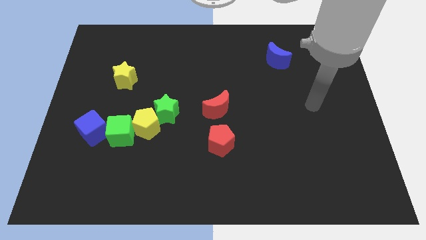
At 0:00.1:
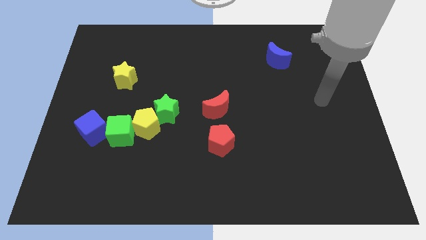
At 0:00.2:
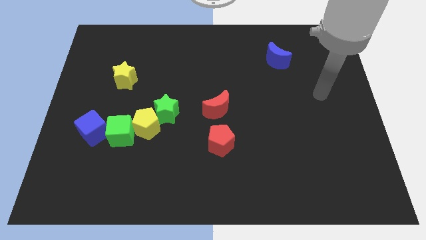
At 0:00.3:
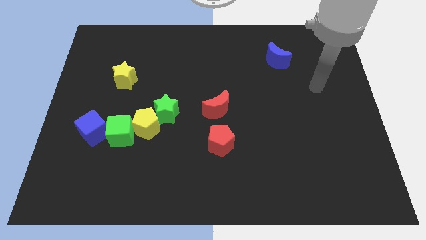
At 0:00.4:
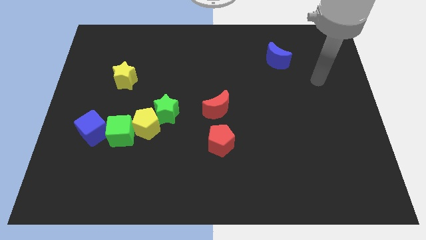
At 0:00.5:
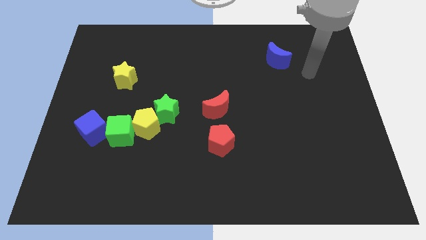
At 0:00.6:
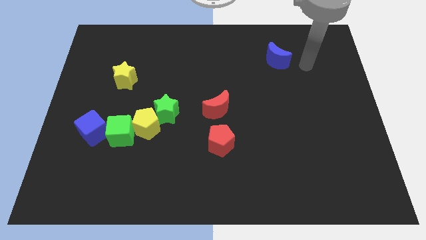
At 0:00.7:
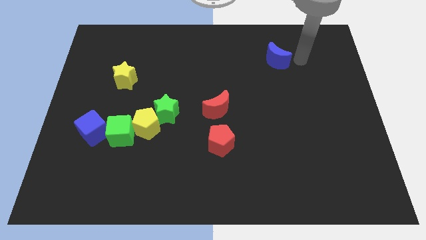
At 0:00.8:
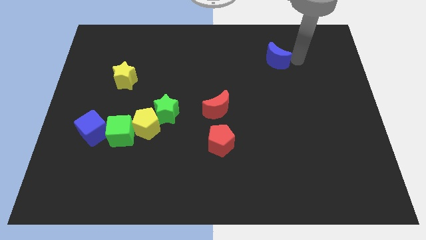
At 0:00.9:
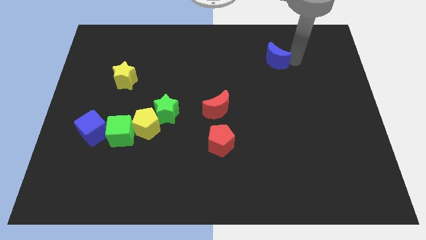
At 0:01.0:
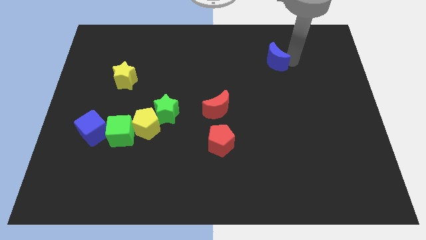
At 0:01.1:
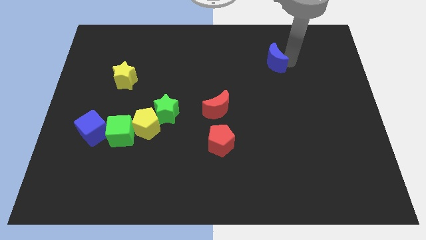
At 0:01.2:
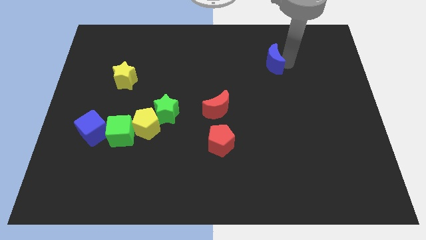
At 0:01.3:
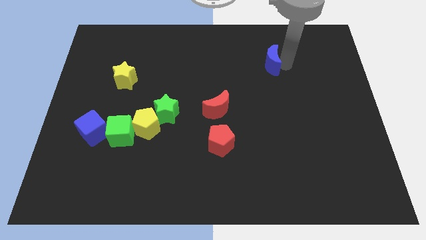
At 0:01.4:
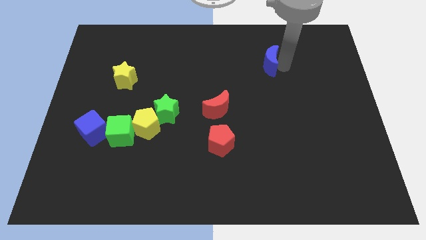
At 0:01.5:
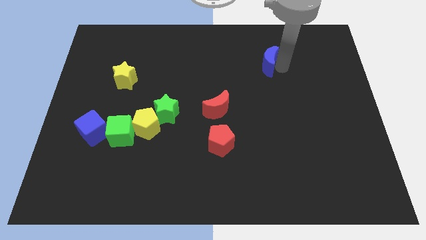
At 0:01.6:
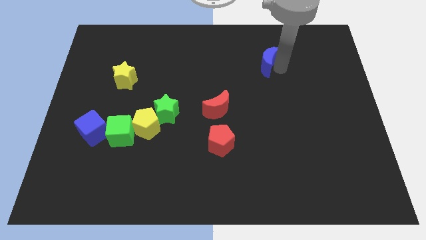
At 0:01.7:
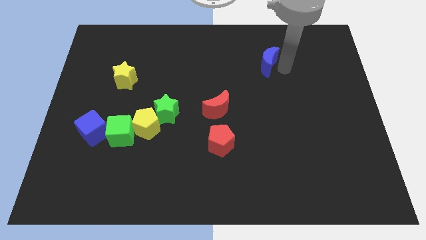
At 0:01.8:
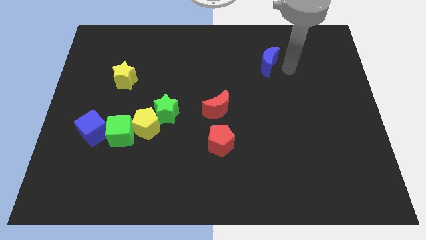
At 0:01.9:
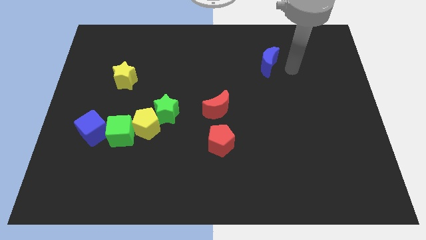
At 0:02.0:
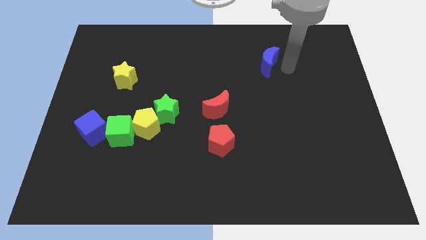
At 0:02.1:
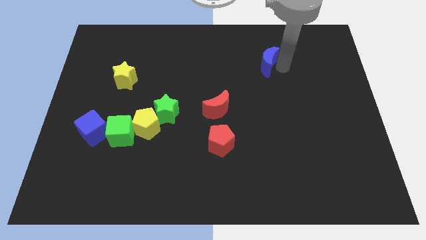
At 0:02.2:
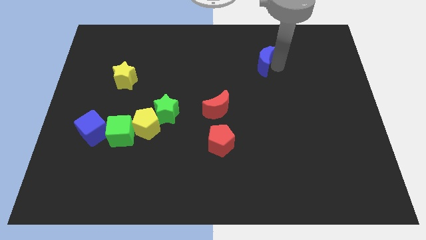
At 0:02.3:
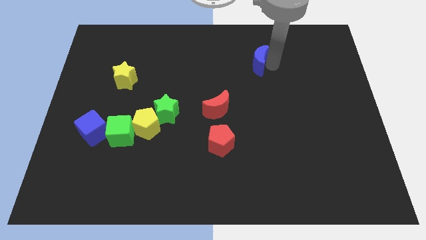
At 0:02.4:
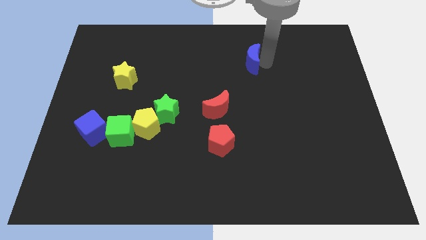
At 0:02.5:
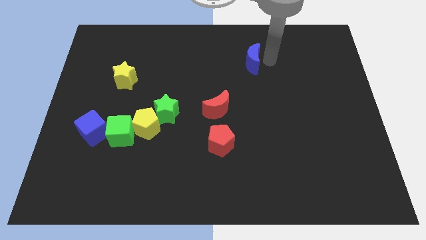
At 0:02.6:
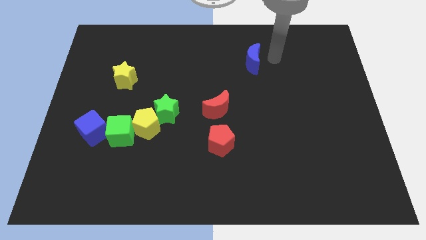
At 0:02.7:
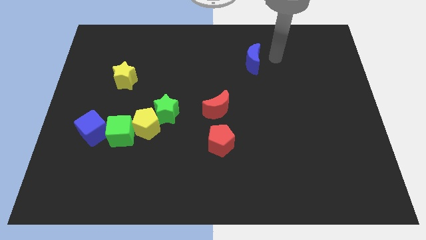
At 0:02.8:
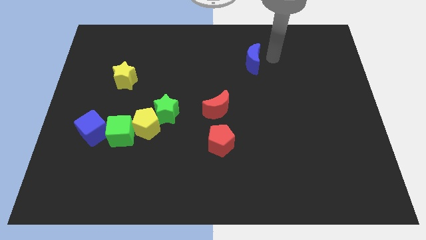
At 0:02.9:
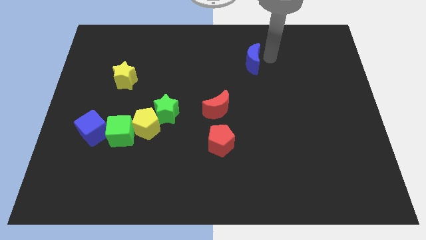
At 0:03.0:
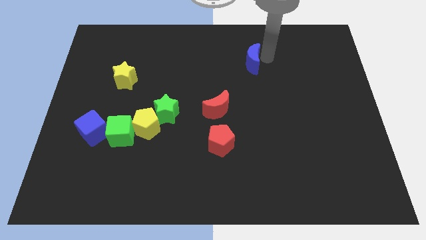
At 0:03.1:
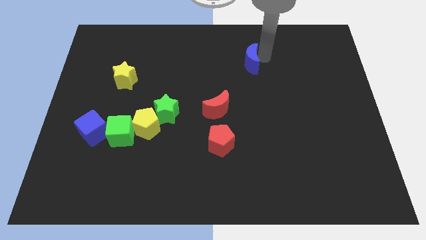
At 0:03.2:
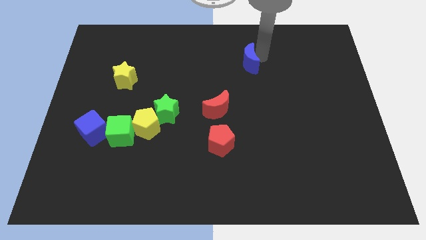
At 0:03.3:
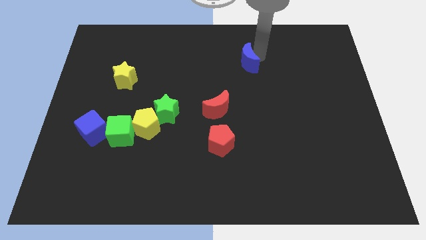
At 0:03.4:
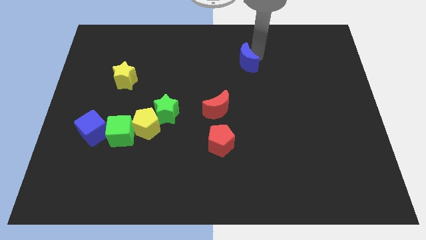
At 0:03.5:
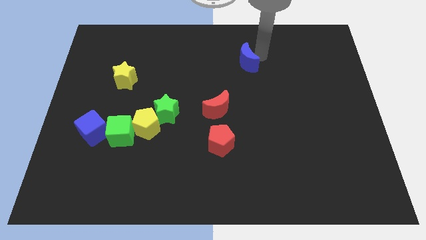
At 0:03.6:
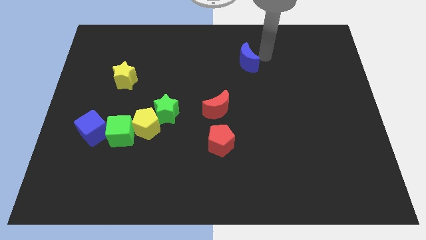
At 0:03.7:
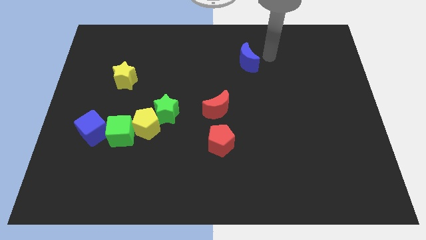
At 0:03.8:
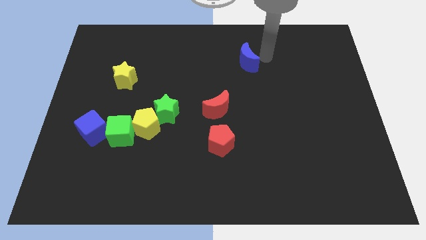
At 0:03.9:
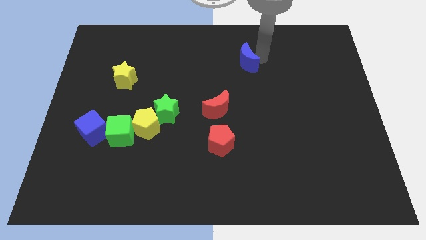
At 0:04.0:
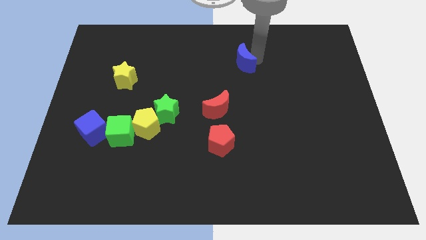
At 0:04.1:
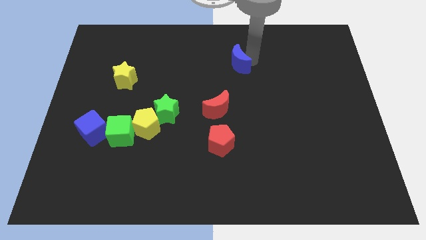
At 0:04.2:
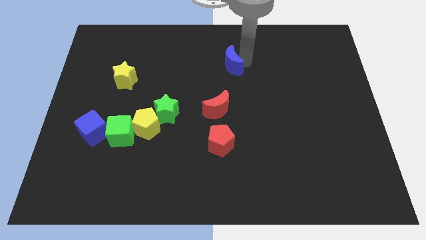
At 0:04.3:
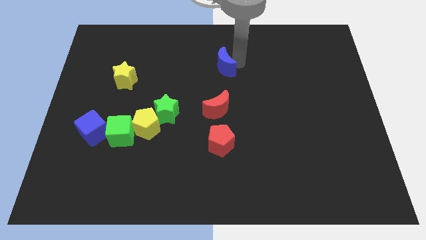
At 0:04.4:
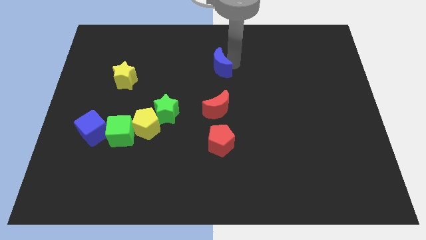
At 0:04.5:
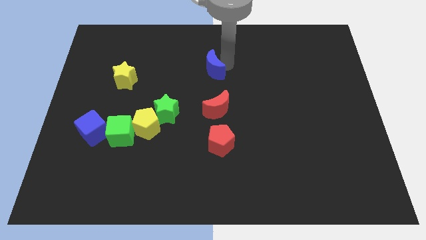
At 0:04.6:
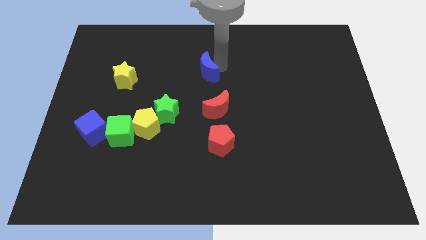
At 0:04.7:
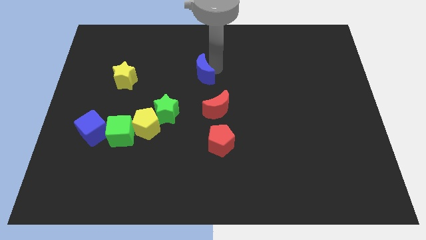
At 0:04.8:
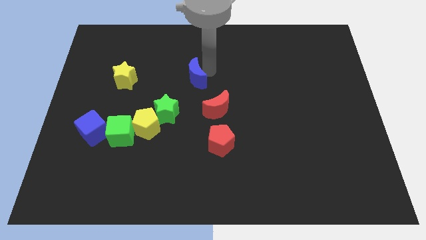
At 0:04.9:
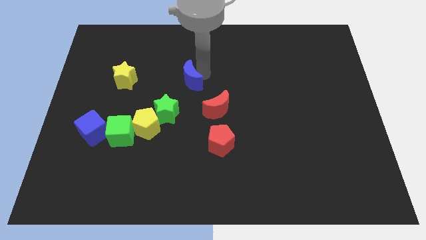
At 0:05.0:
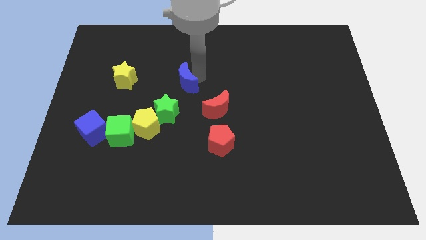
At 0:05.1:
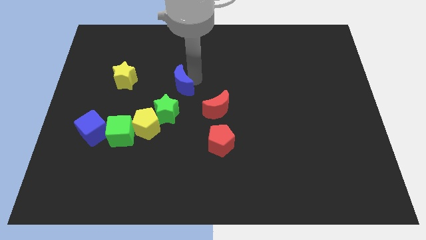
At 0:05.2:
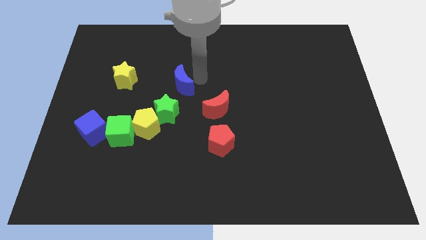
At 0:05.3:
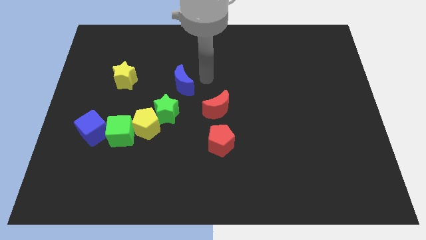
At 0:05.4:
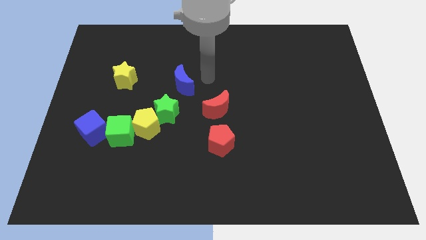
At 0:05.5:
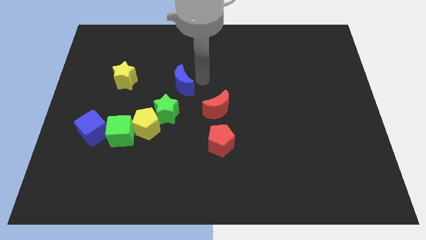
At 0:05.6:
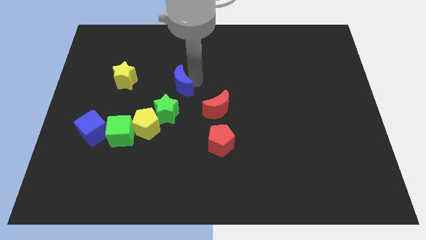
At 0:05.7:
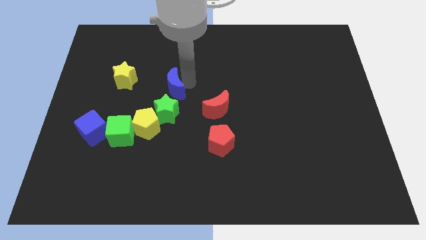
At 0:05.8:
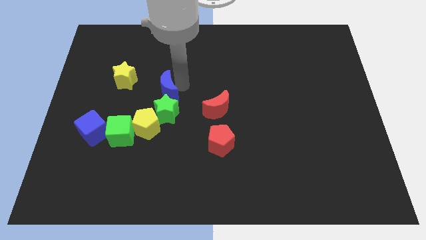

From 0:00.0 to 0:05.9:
push the blue moon to the top side of the yellow pentagon

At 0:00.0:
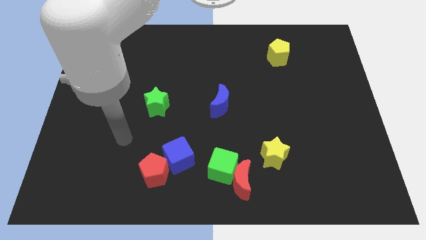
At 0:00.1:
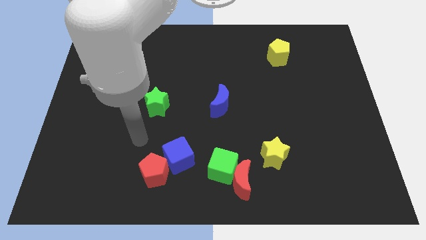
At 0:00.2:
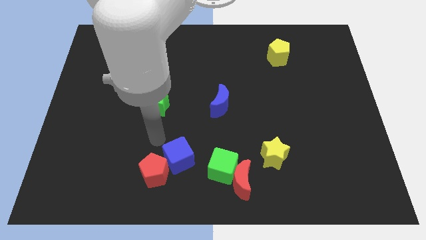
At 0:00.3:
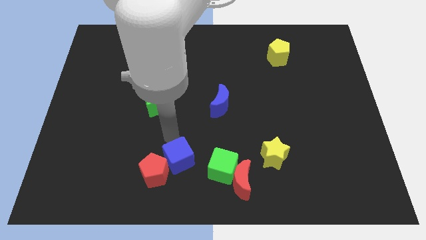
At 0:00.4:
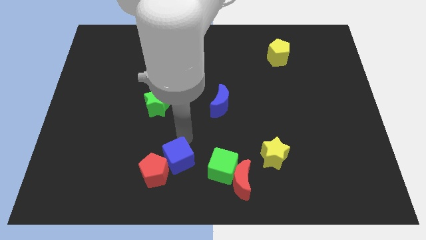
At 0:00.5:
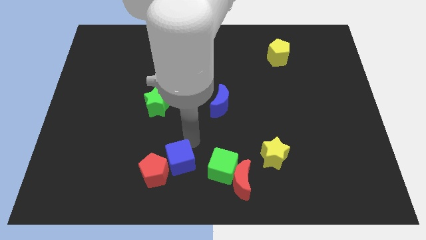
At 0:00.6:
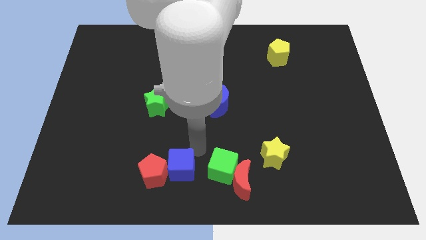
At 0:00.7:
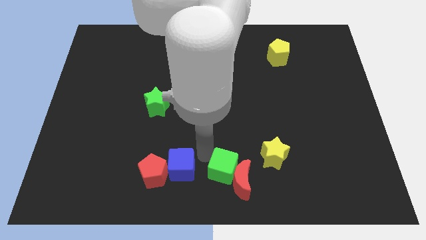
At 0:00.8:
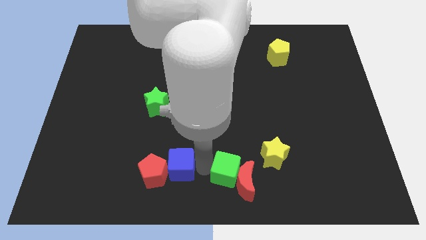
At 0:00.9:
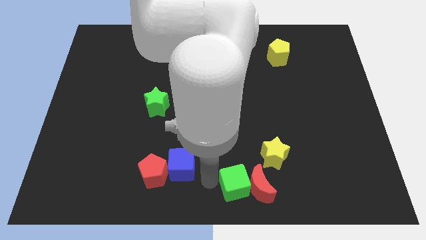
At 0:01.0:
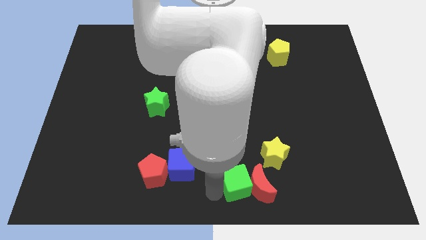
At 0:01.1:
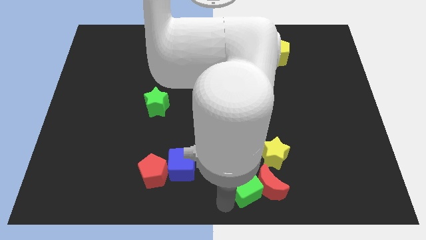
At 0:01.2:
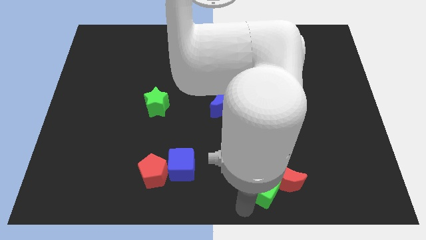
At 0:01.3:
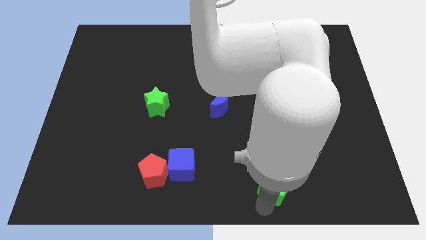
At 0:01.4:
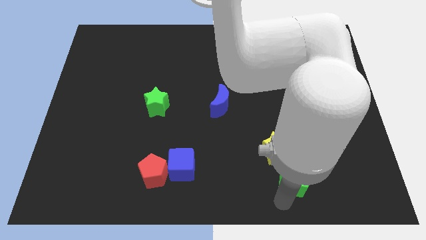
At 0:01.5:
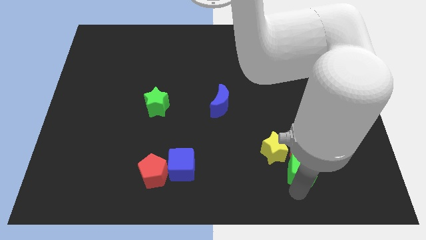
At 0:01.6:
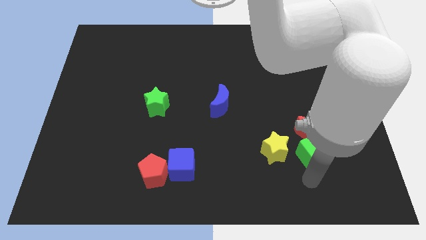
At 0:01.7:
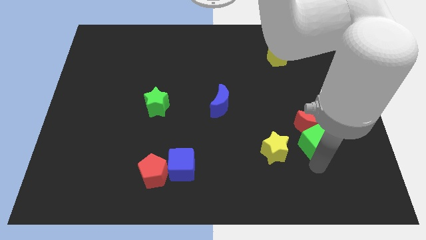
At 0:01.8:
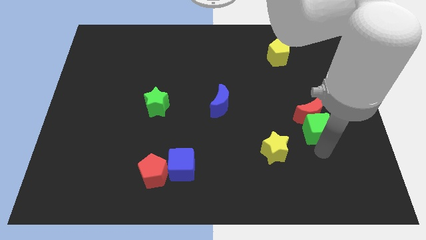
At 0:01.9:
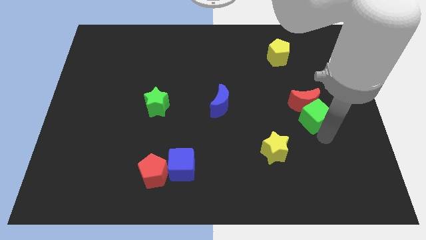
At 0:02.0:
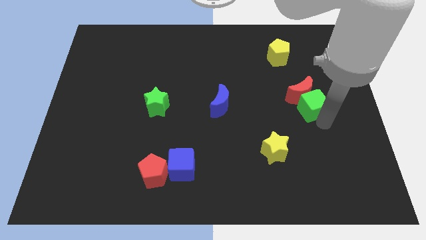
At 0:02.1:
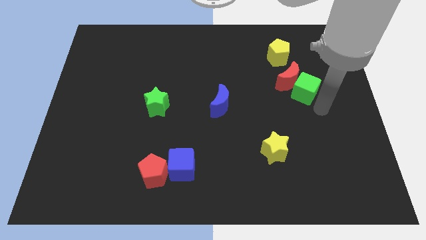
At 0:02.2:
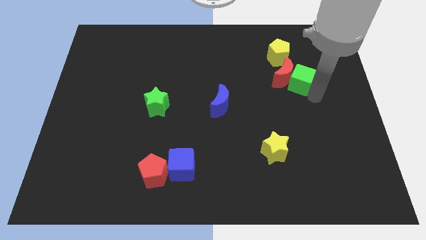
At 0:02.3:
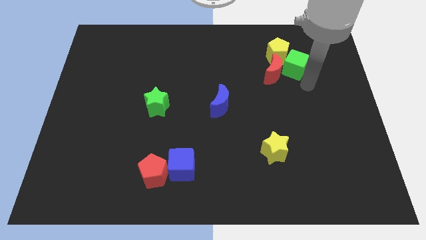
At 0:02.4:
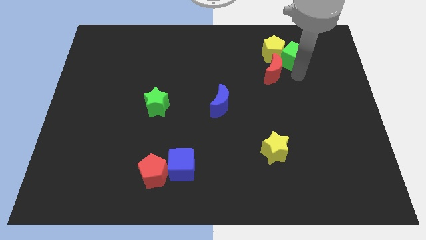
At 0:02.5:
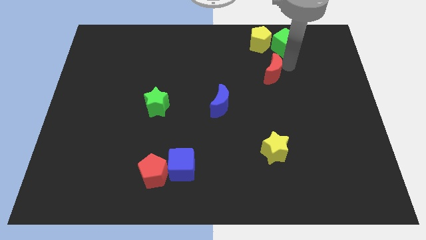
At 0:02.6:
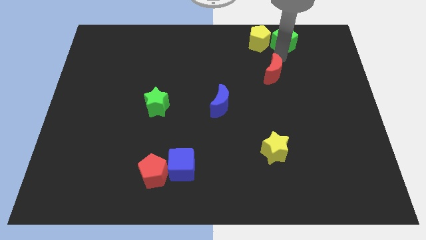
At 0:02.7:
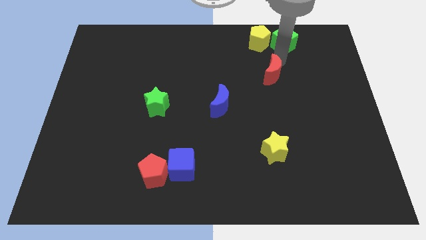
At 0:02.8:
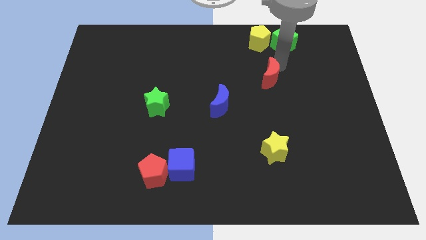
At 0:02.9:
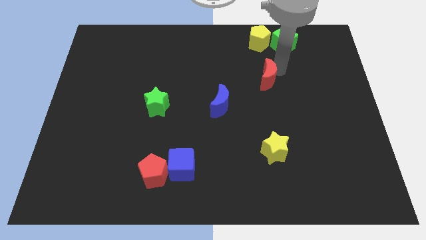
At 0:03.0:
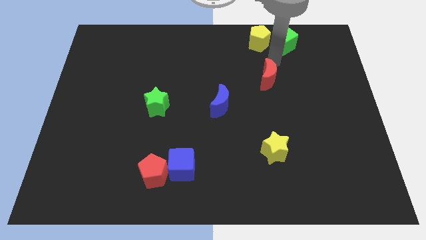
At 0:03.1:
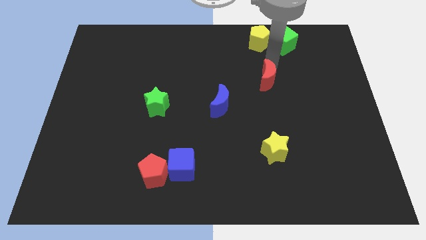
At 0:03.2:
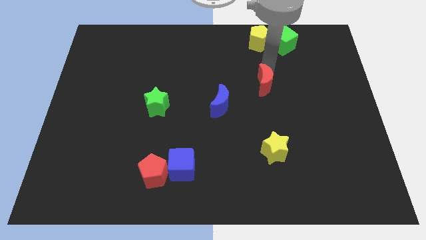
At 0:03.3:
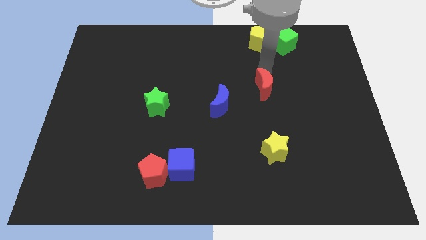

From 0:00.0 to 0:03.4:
push the red moon diagonally up and to the right of the blue moon
